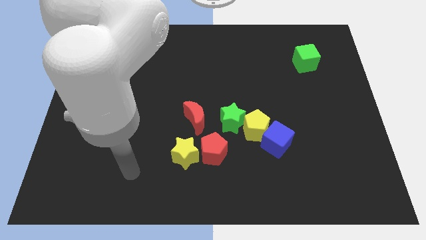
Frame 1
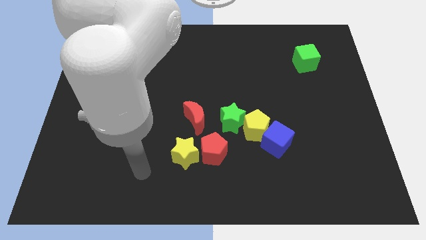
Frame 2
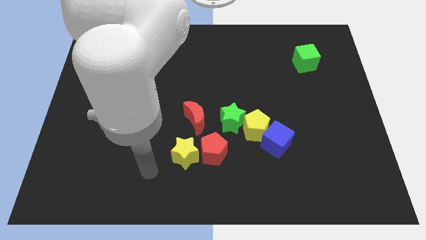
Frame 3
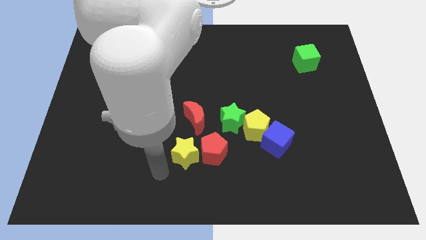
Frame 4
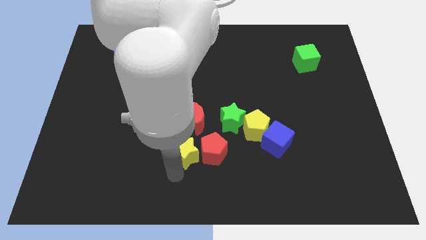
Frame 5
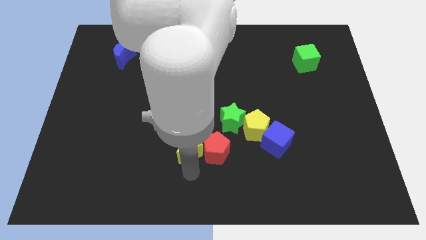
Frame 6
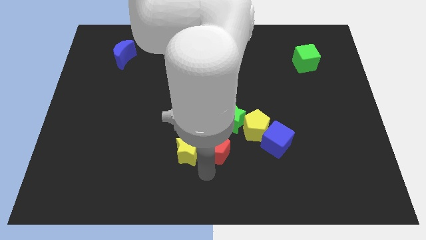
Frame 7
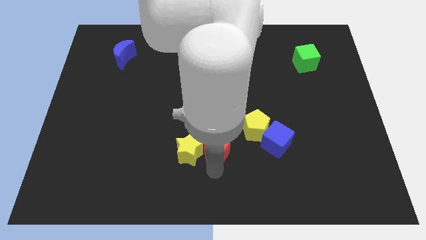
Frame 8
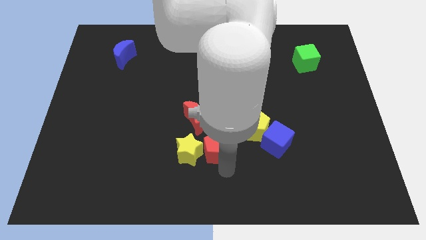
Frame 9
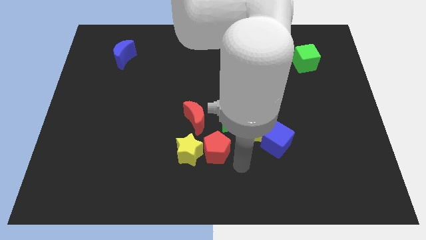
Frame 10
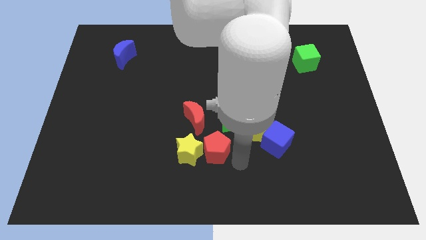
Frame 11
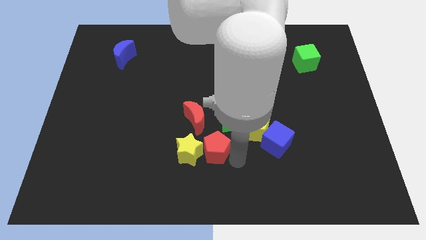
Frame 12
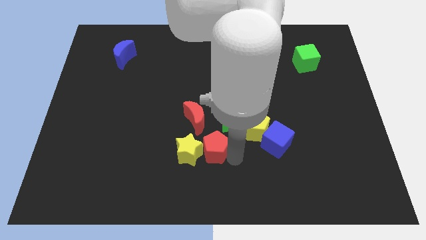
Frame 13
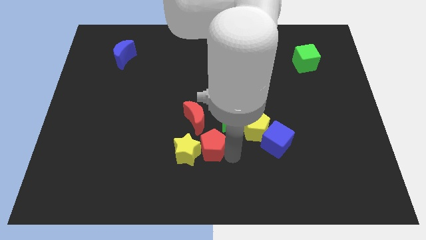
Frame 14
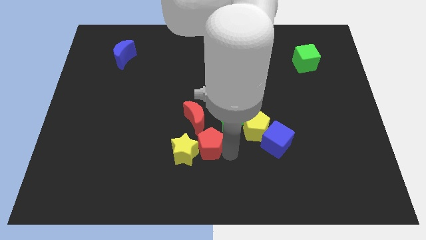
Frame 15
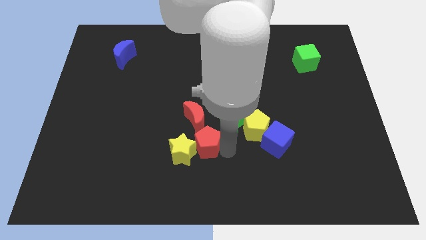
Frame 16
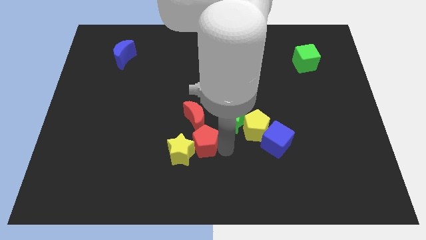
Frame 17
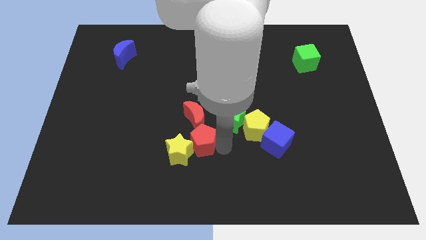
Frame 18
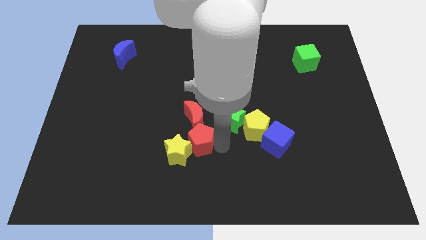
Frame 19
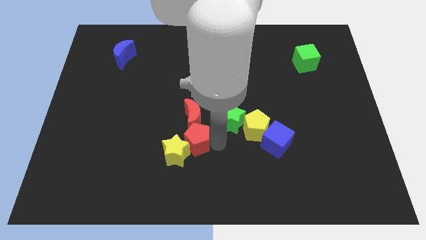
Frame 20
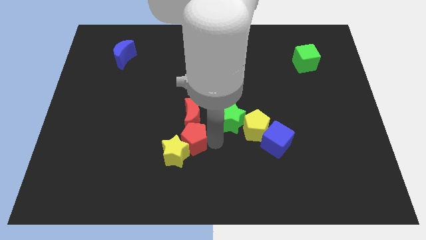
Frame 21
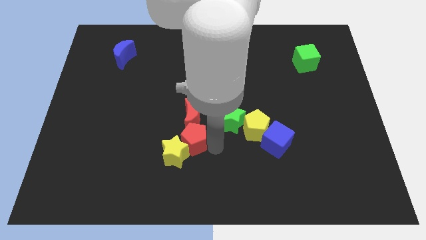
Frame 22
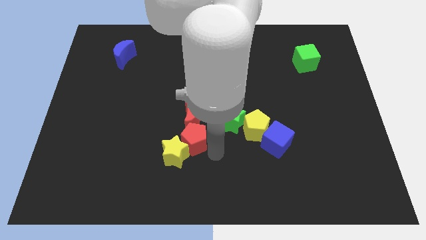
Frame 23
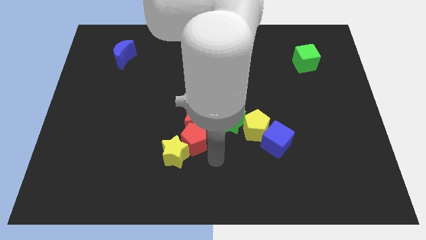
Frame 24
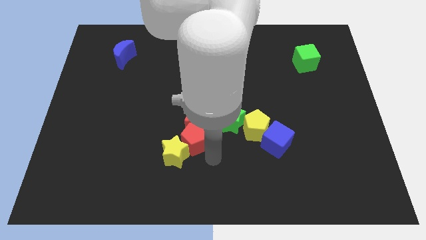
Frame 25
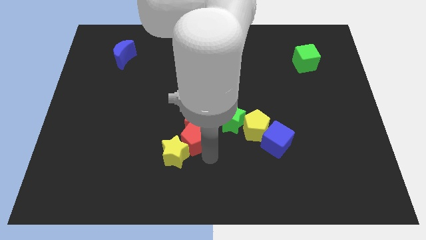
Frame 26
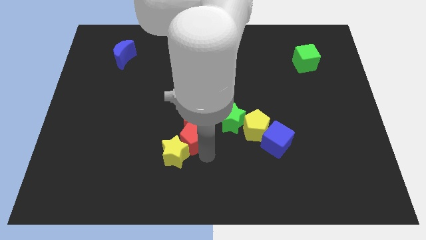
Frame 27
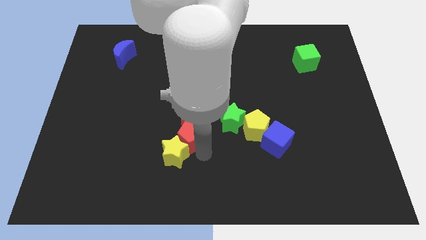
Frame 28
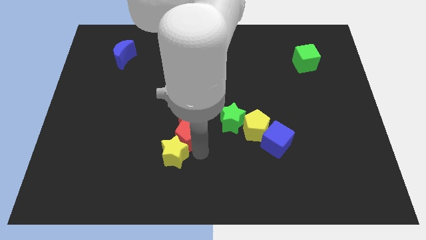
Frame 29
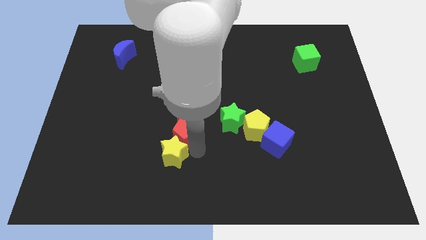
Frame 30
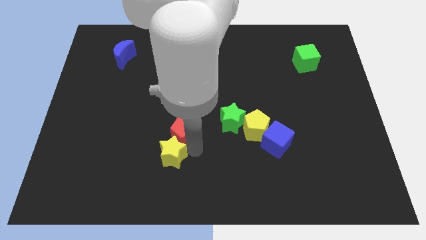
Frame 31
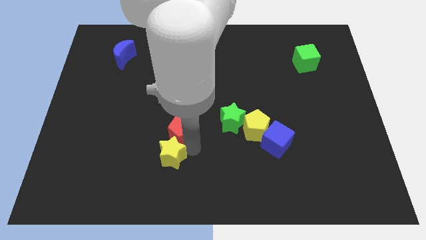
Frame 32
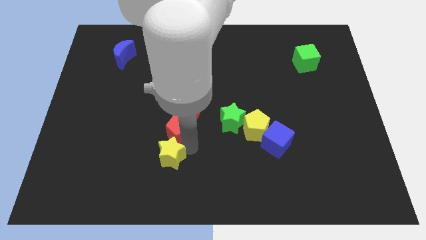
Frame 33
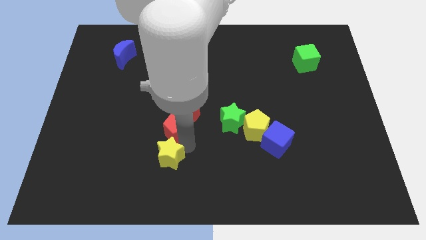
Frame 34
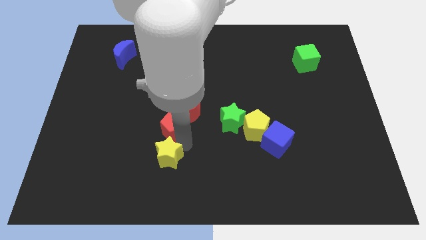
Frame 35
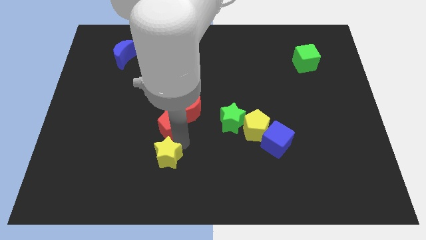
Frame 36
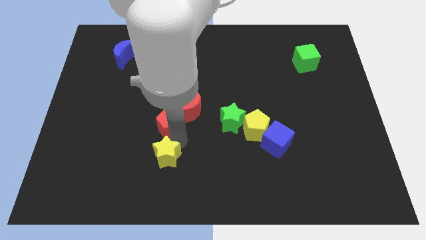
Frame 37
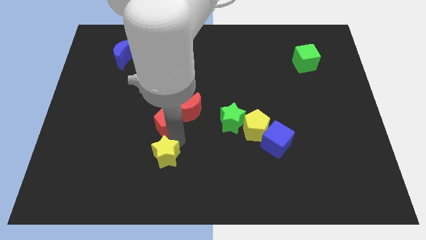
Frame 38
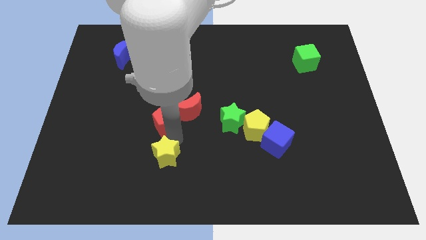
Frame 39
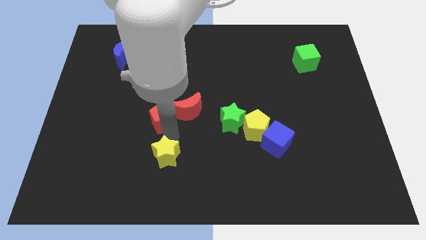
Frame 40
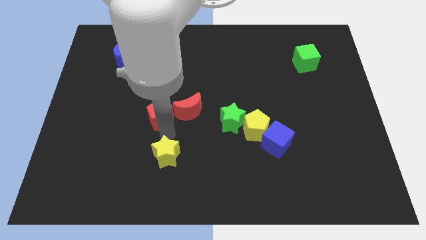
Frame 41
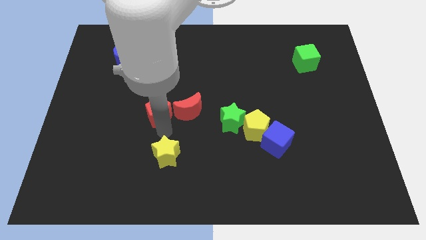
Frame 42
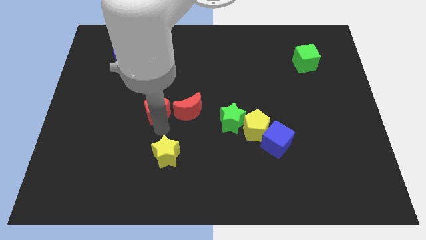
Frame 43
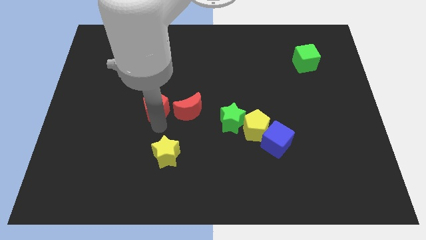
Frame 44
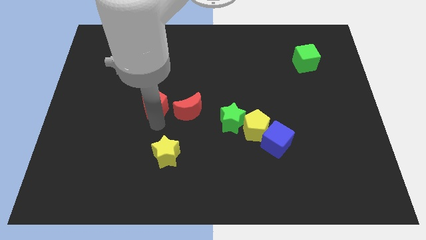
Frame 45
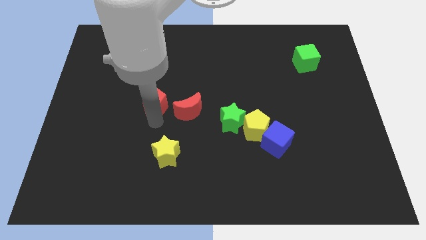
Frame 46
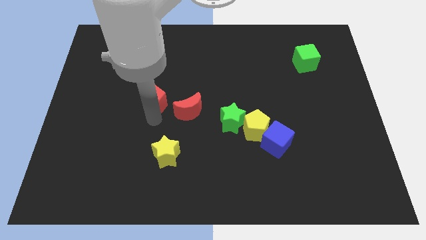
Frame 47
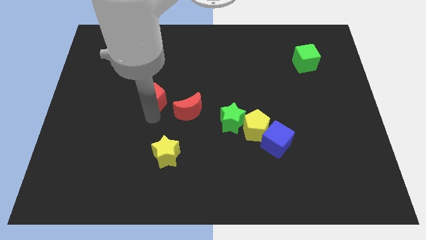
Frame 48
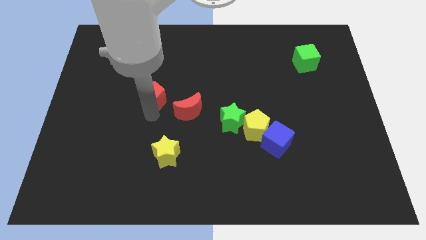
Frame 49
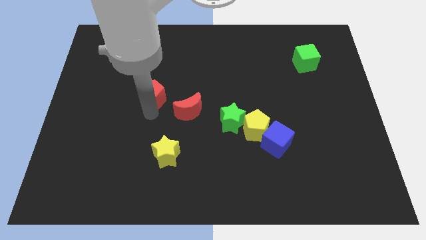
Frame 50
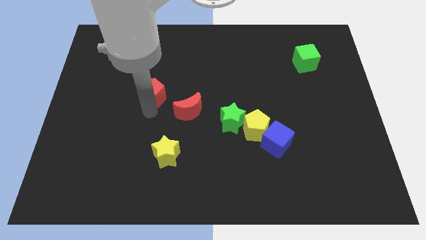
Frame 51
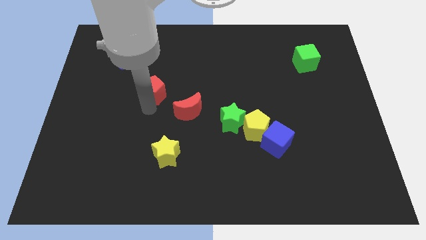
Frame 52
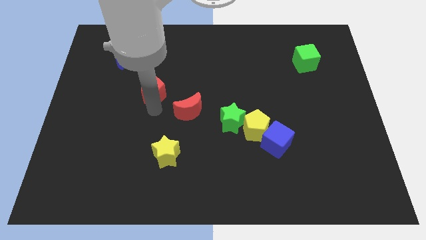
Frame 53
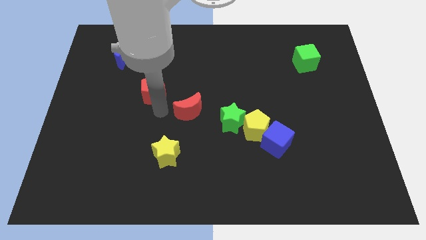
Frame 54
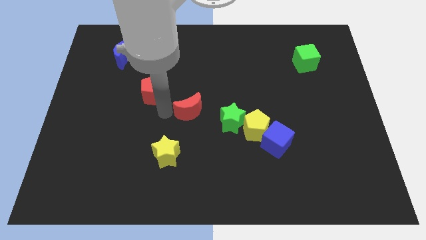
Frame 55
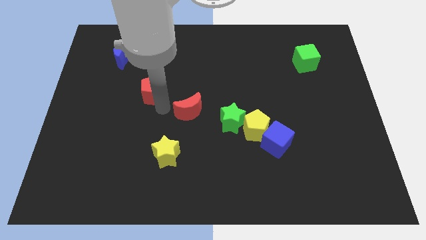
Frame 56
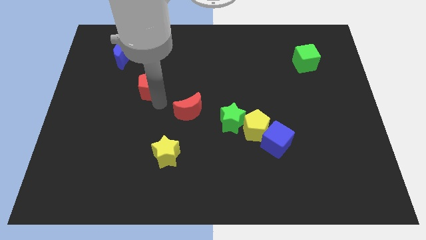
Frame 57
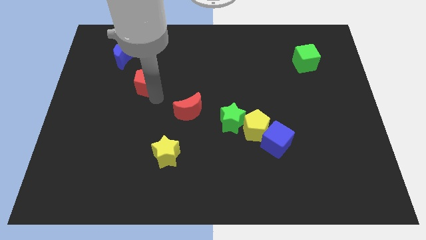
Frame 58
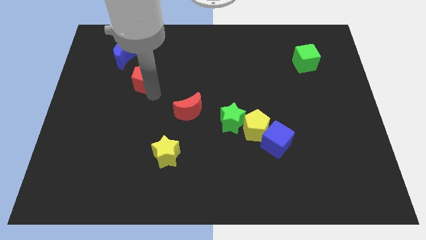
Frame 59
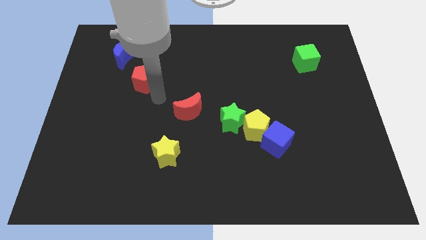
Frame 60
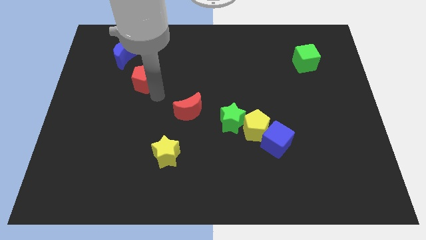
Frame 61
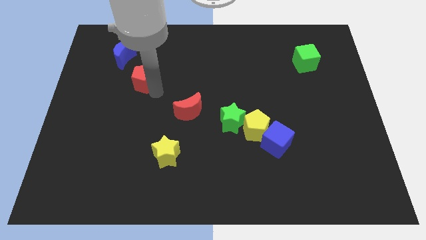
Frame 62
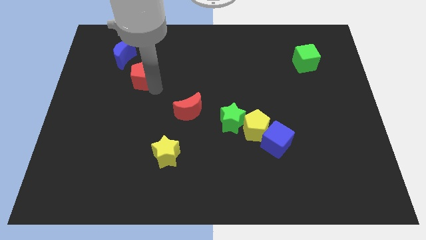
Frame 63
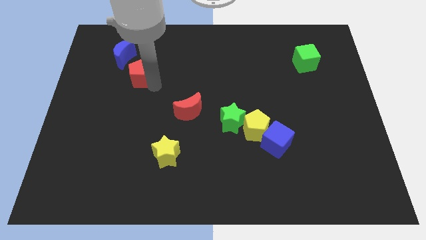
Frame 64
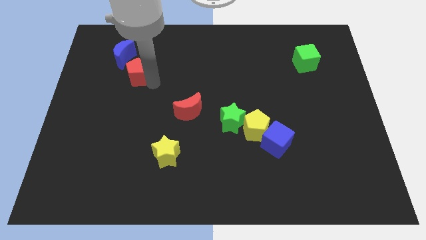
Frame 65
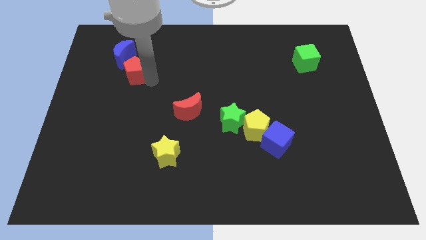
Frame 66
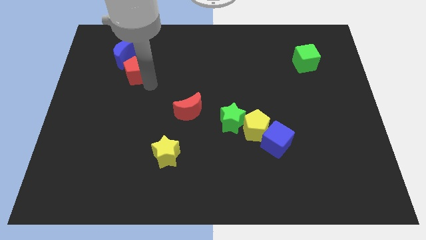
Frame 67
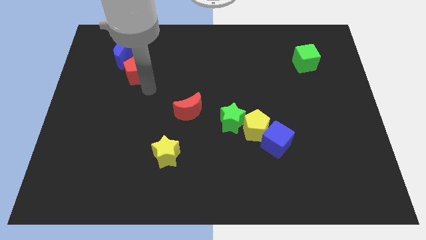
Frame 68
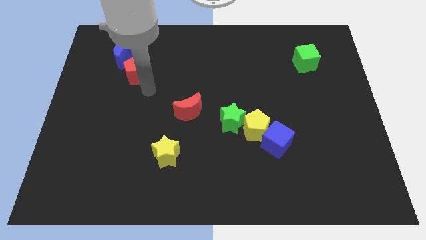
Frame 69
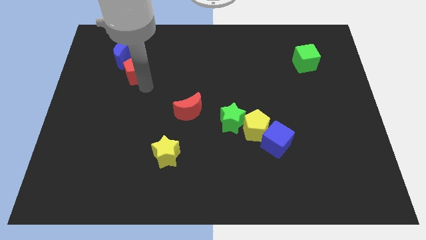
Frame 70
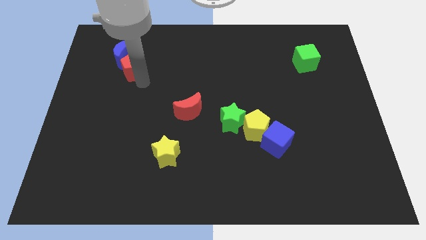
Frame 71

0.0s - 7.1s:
slide the red pentagon to the blue moon

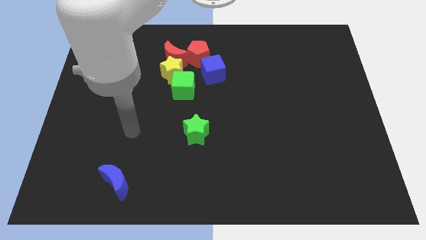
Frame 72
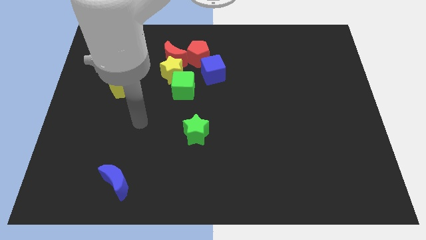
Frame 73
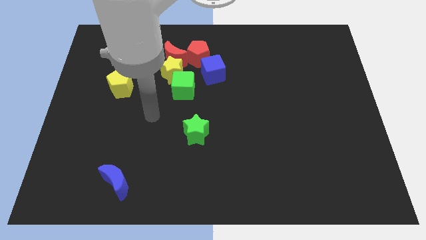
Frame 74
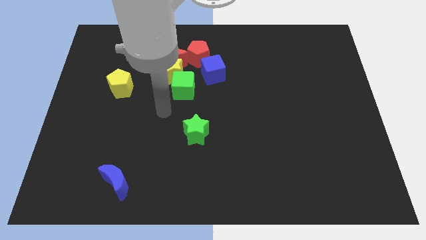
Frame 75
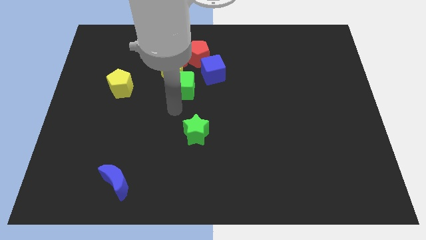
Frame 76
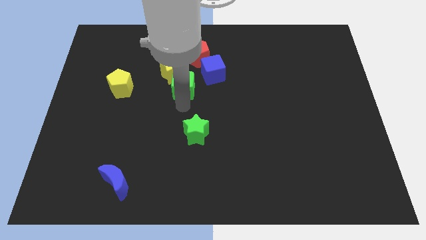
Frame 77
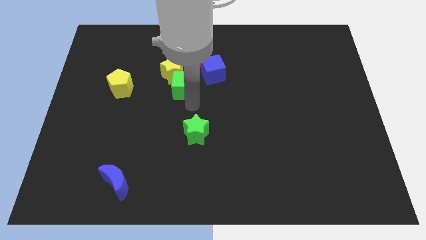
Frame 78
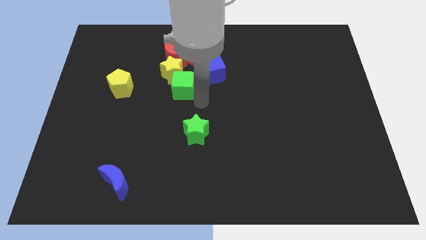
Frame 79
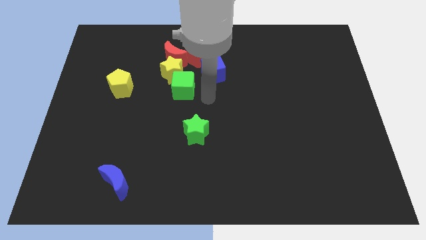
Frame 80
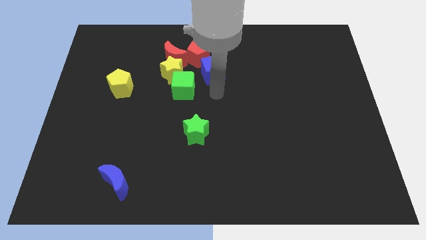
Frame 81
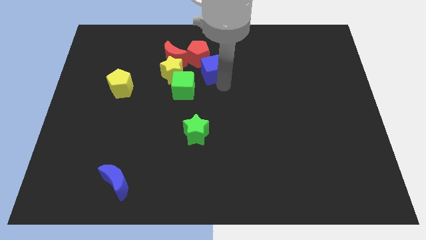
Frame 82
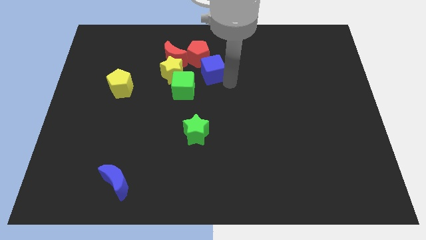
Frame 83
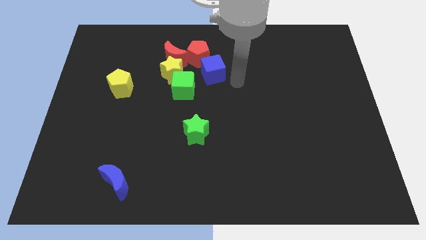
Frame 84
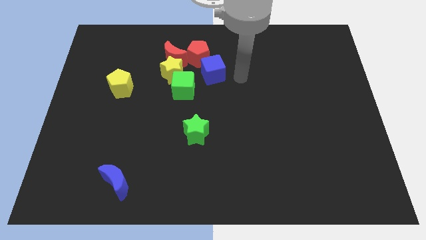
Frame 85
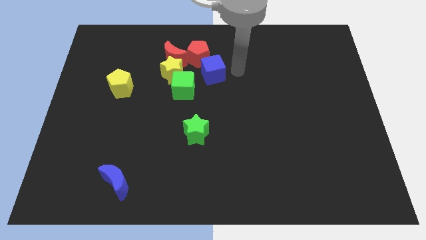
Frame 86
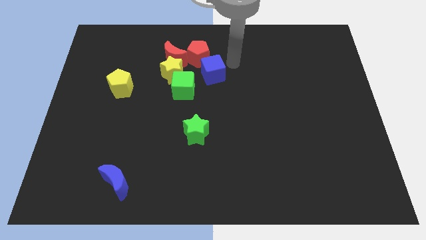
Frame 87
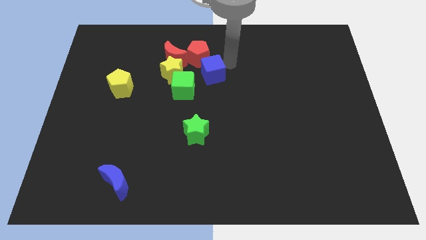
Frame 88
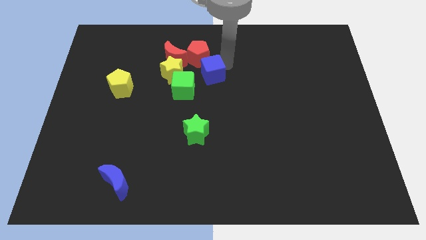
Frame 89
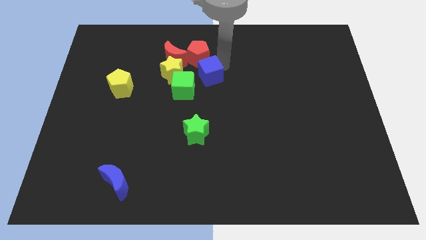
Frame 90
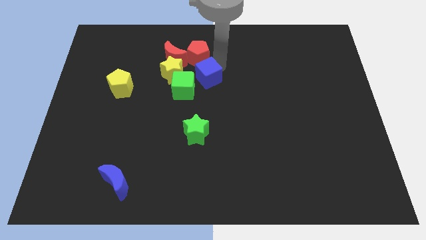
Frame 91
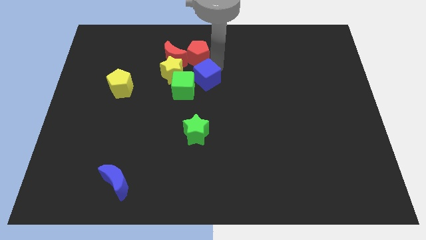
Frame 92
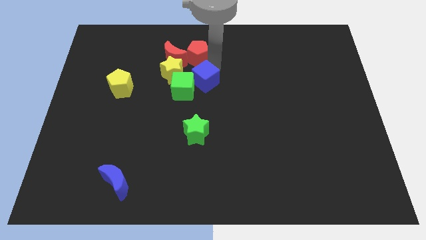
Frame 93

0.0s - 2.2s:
push the blue cube next to the green cube
